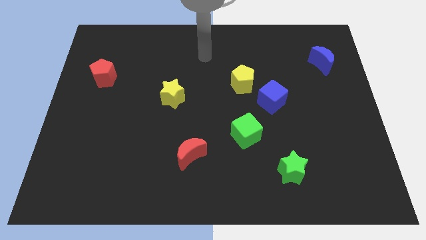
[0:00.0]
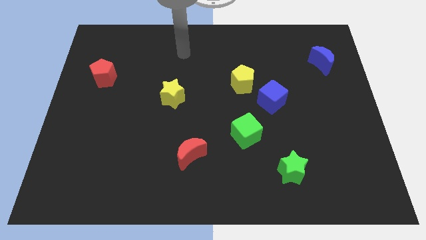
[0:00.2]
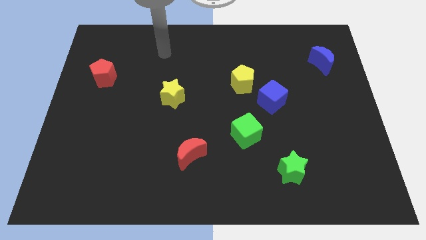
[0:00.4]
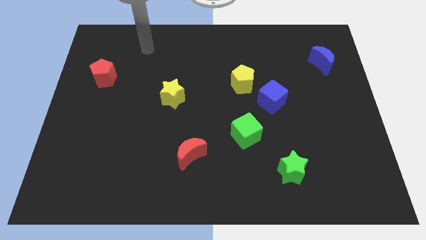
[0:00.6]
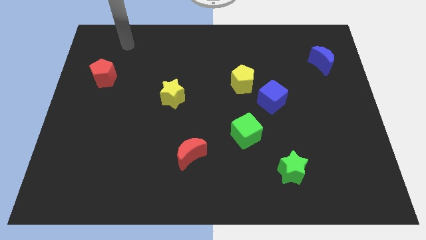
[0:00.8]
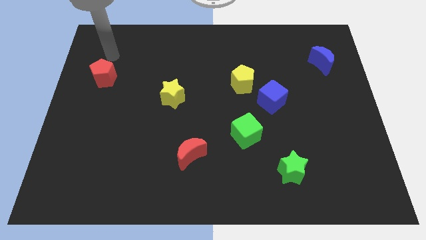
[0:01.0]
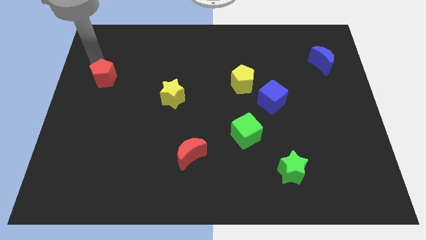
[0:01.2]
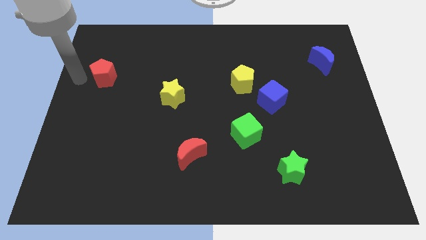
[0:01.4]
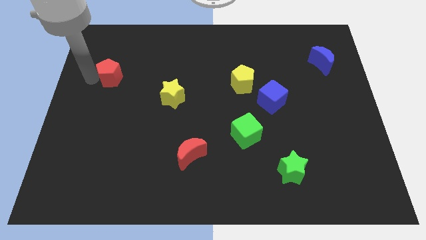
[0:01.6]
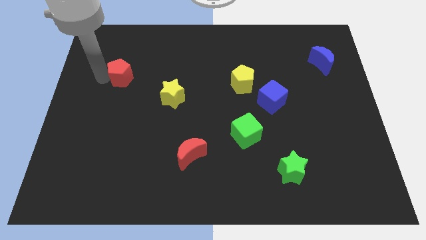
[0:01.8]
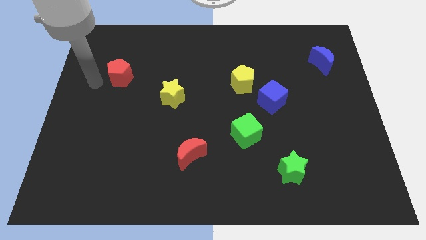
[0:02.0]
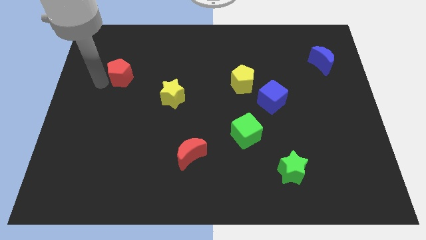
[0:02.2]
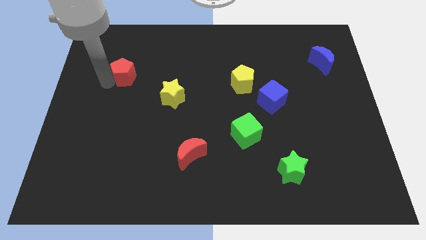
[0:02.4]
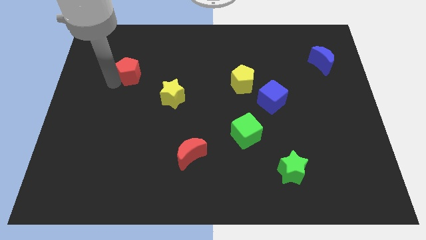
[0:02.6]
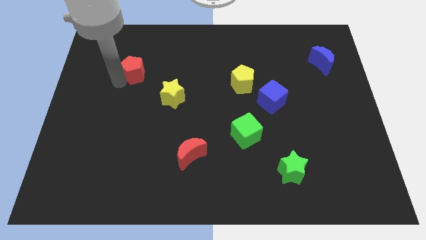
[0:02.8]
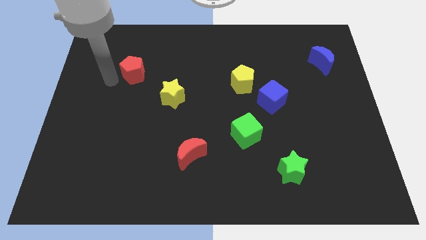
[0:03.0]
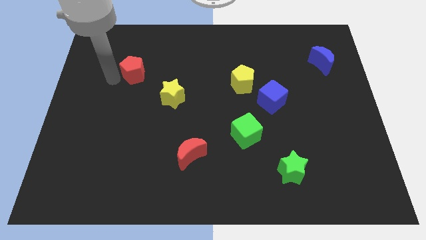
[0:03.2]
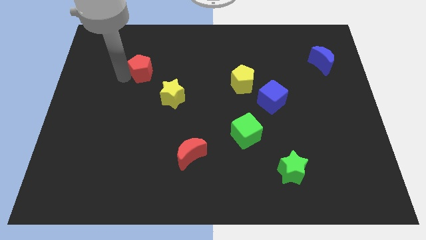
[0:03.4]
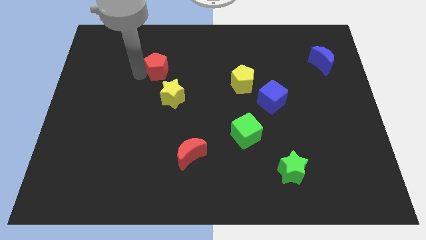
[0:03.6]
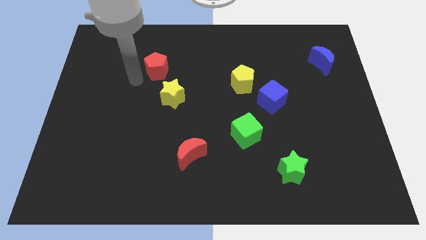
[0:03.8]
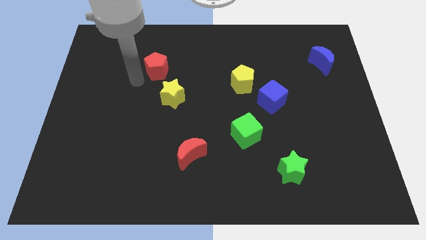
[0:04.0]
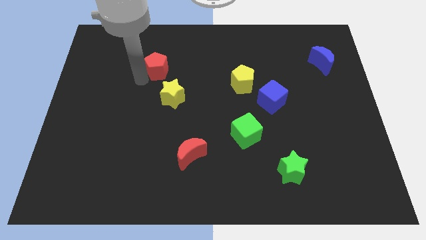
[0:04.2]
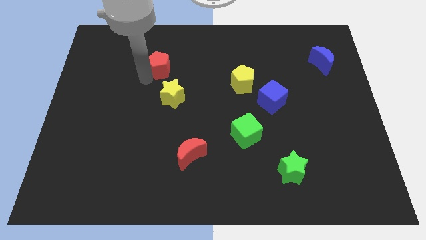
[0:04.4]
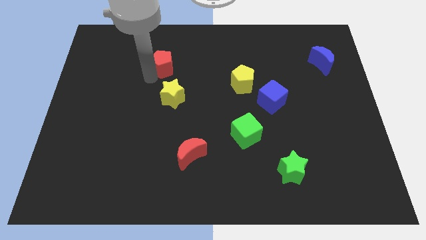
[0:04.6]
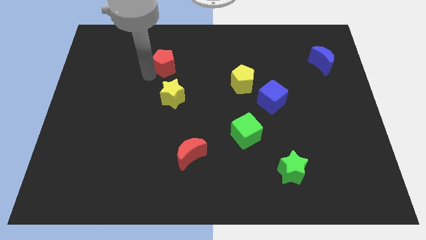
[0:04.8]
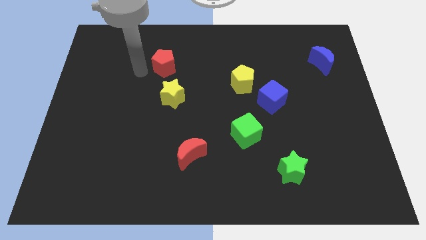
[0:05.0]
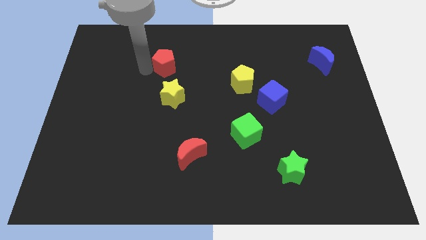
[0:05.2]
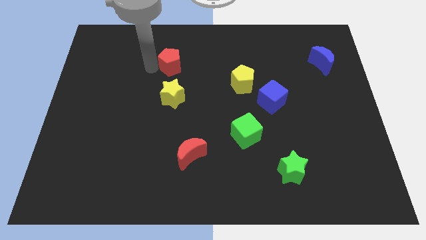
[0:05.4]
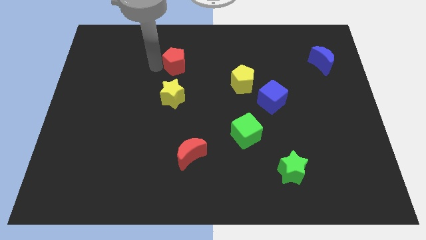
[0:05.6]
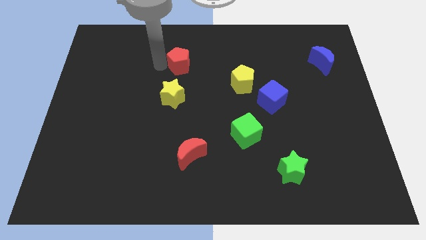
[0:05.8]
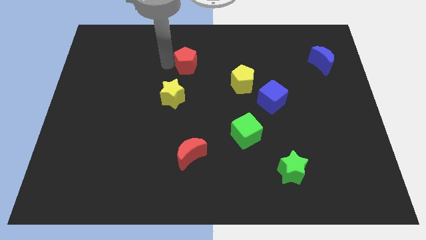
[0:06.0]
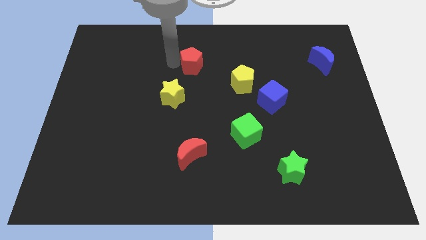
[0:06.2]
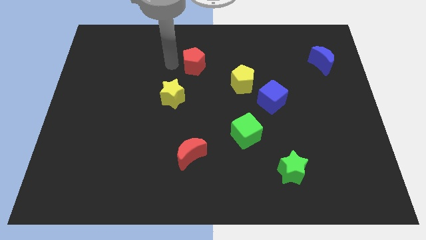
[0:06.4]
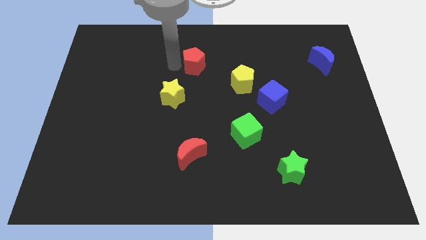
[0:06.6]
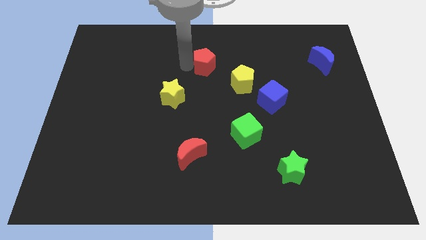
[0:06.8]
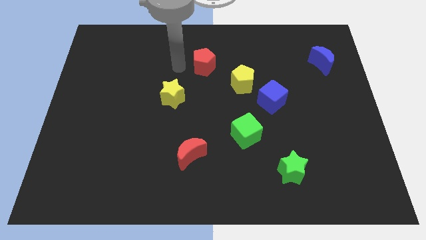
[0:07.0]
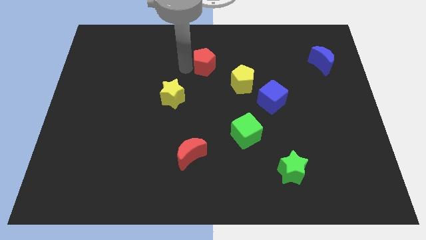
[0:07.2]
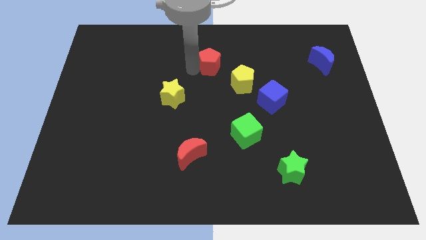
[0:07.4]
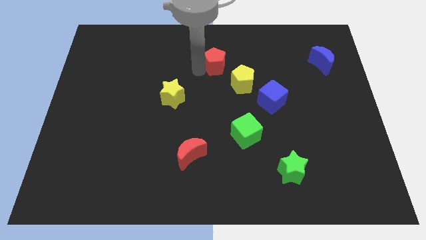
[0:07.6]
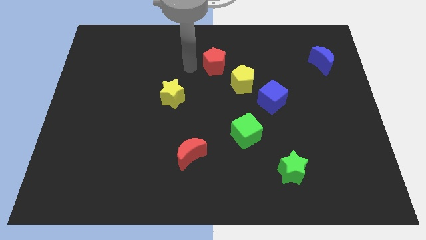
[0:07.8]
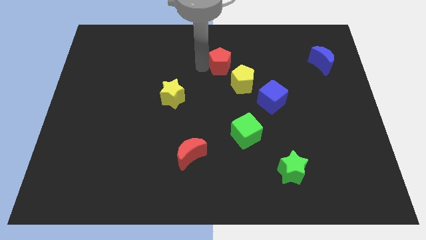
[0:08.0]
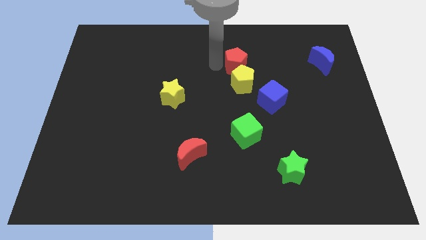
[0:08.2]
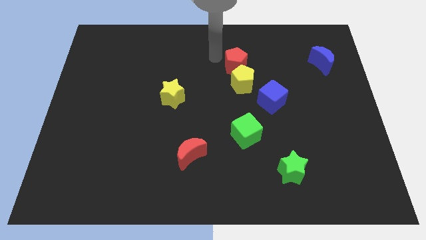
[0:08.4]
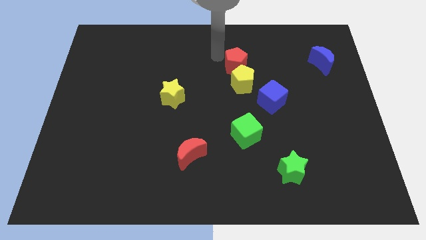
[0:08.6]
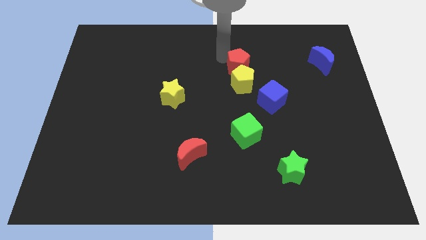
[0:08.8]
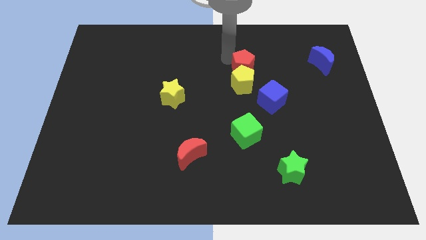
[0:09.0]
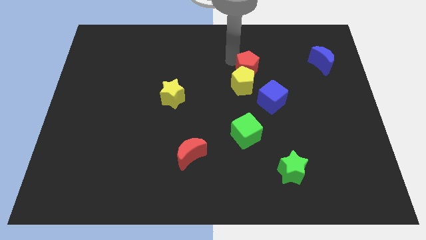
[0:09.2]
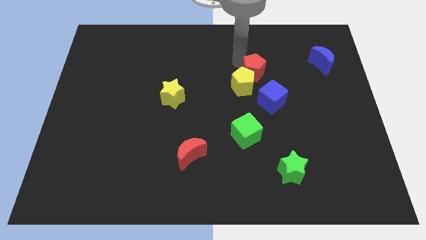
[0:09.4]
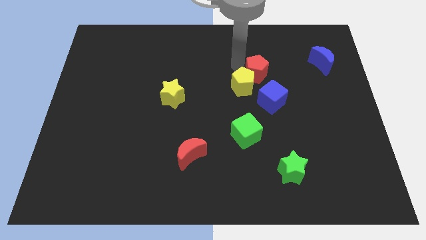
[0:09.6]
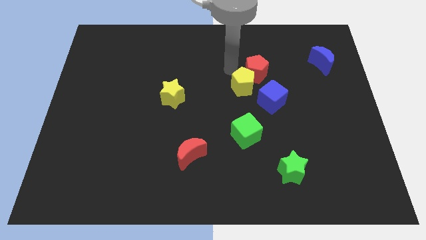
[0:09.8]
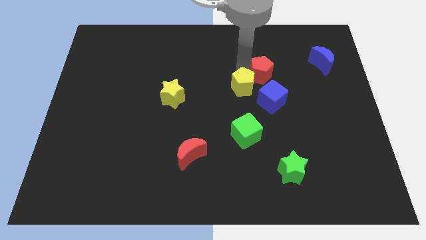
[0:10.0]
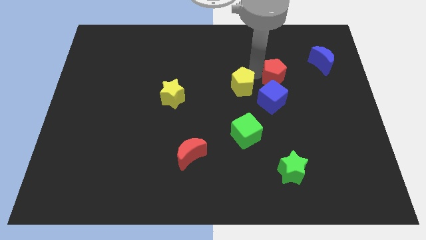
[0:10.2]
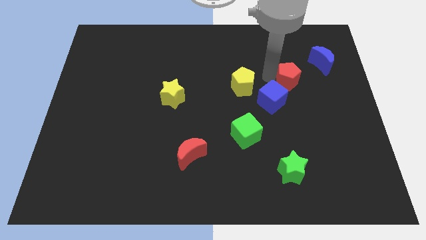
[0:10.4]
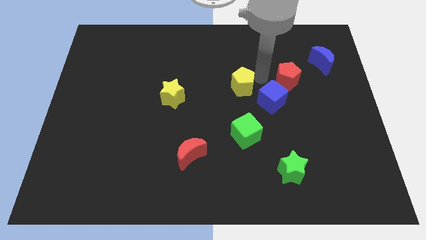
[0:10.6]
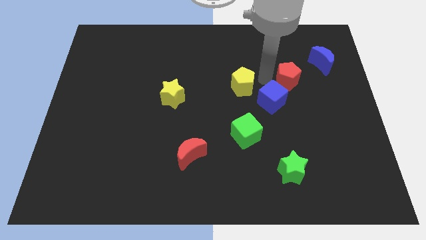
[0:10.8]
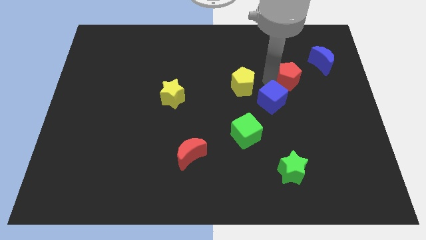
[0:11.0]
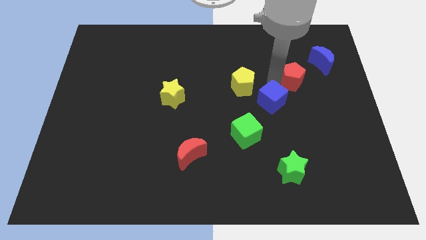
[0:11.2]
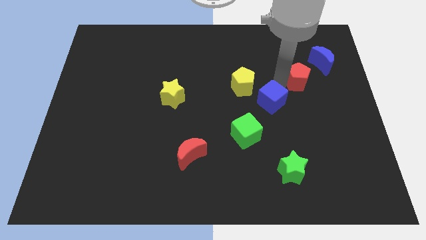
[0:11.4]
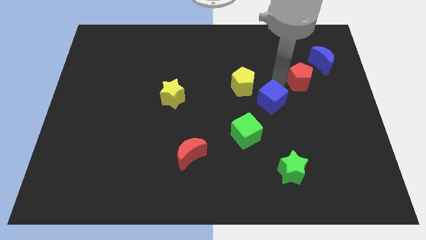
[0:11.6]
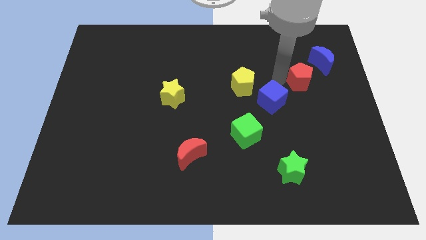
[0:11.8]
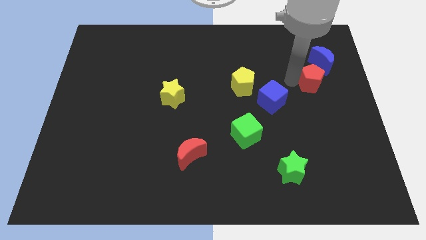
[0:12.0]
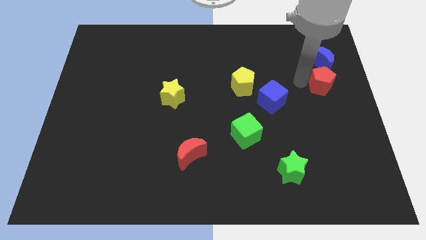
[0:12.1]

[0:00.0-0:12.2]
slide the red pentagon to the right side of the board
